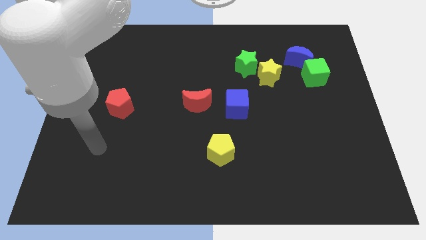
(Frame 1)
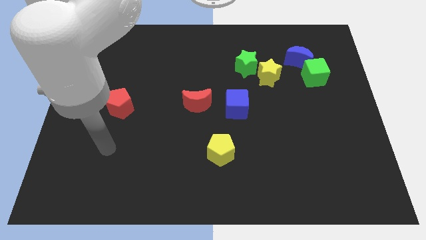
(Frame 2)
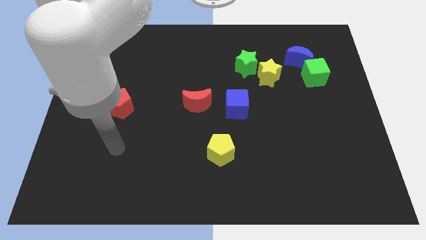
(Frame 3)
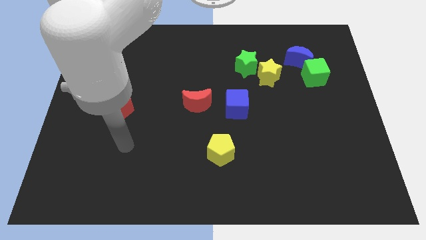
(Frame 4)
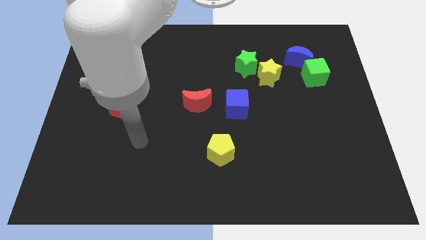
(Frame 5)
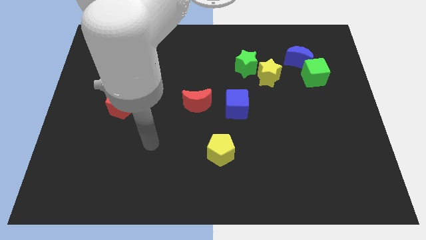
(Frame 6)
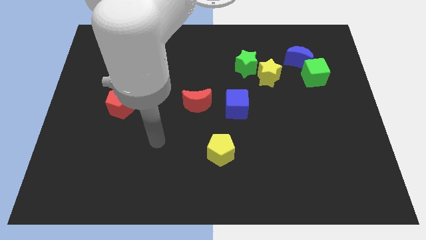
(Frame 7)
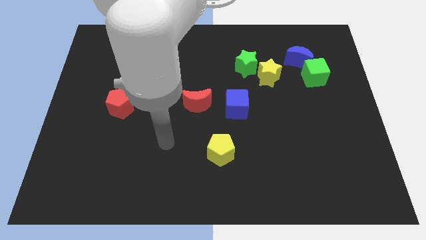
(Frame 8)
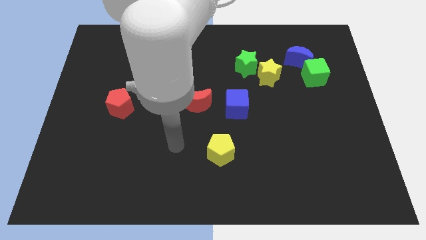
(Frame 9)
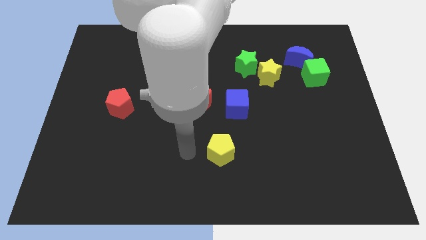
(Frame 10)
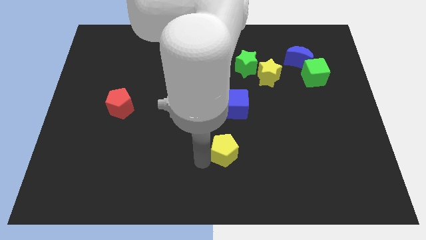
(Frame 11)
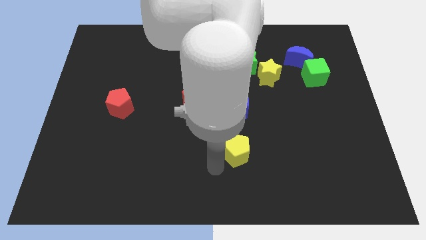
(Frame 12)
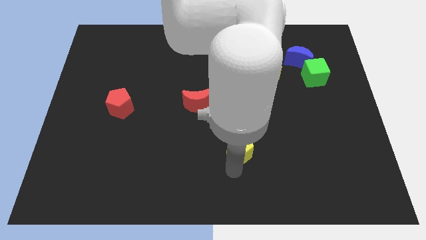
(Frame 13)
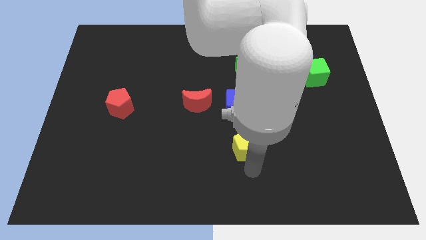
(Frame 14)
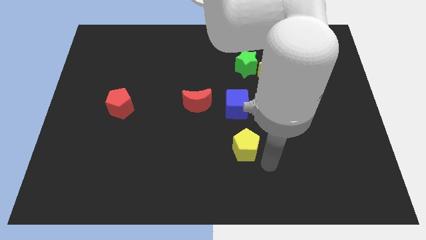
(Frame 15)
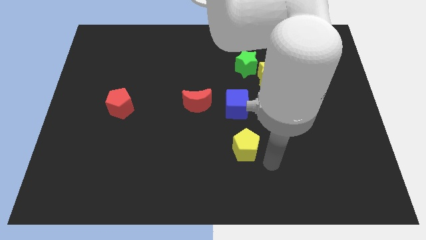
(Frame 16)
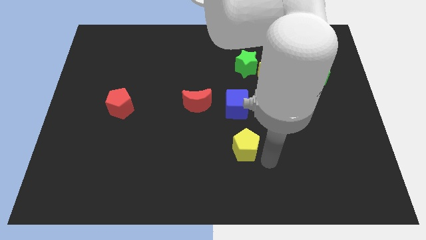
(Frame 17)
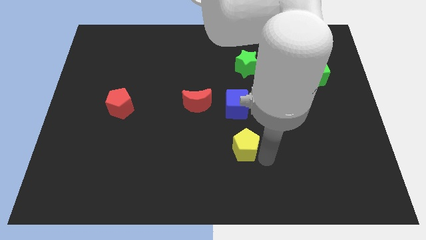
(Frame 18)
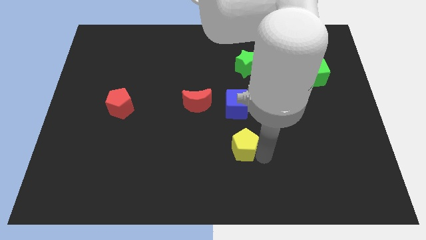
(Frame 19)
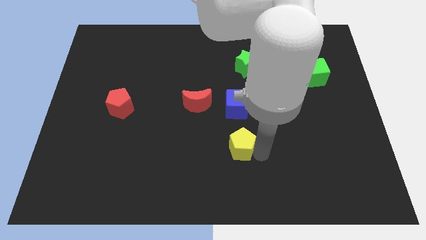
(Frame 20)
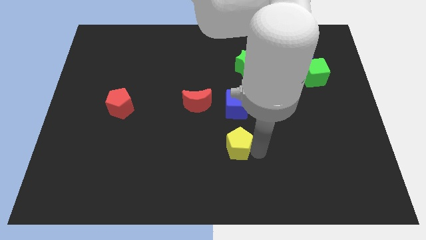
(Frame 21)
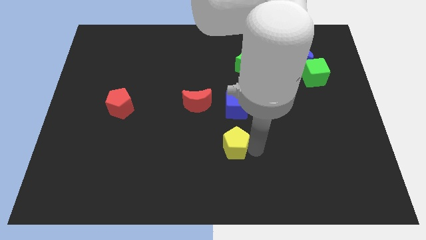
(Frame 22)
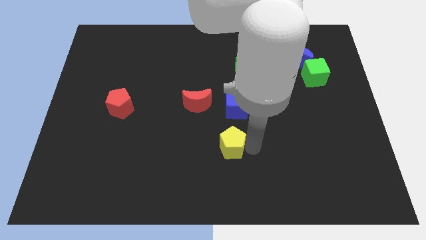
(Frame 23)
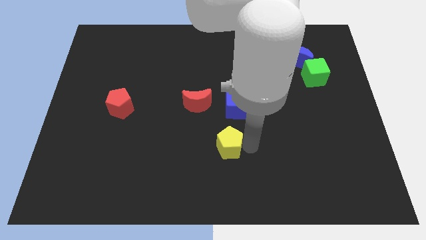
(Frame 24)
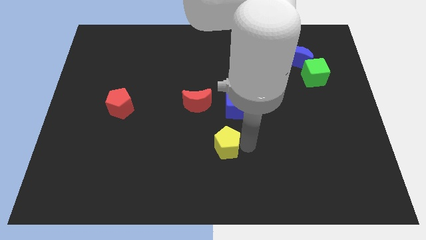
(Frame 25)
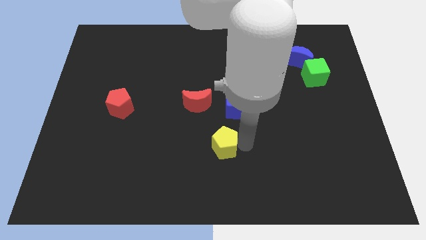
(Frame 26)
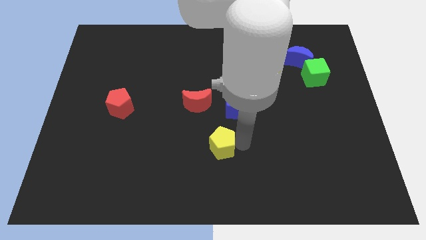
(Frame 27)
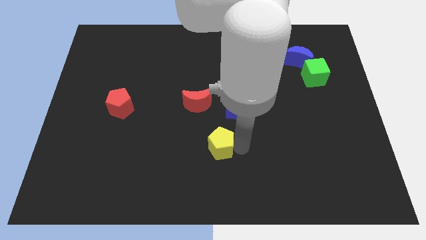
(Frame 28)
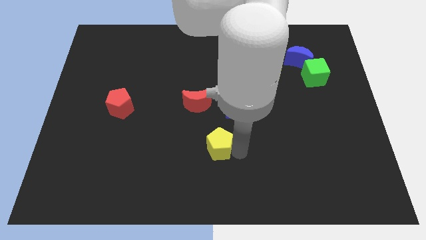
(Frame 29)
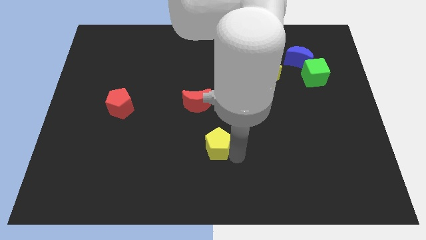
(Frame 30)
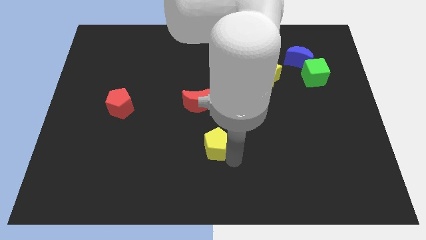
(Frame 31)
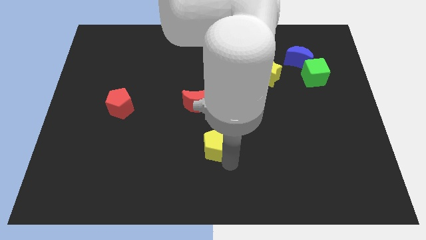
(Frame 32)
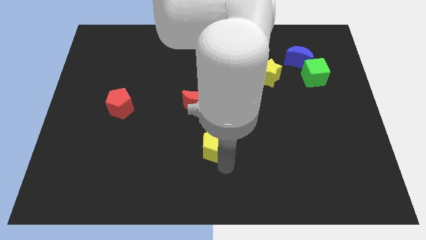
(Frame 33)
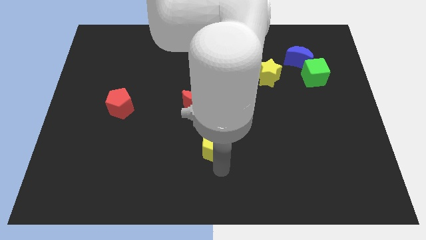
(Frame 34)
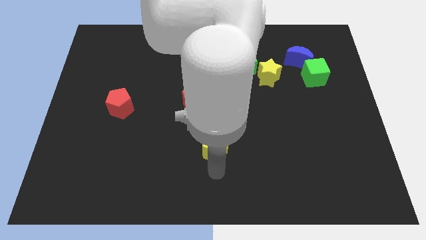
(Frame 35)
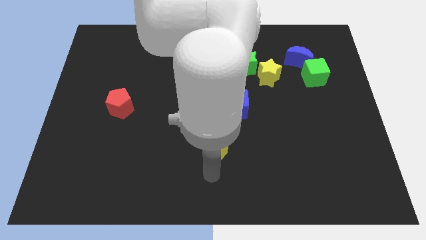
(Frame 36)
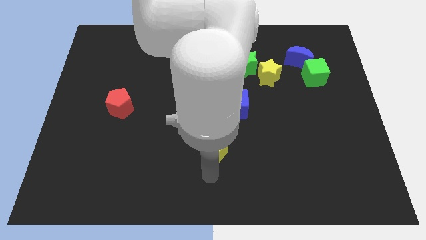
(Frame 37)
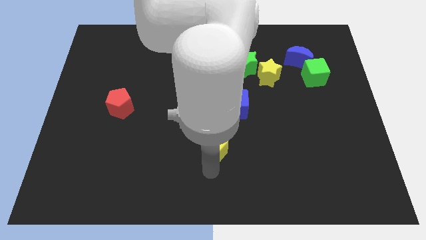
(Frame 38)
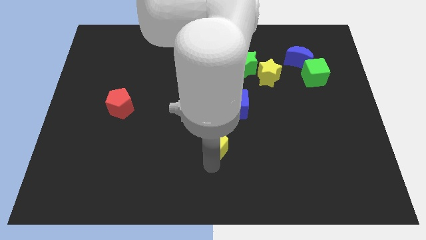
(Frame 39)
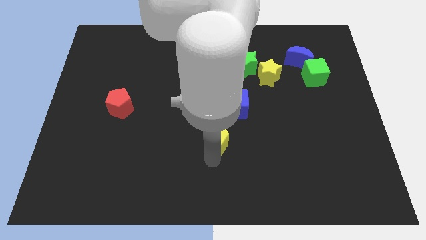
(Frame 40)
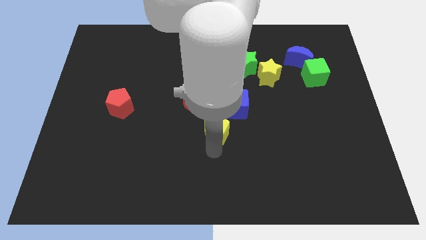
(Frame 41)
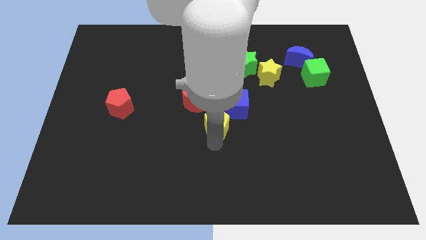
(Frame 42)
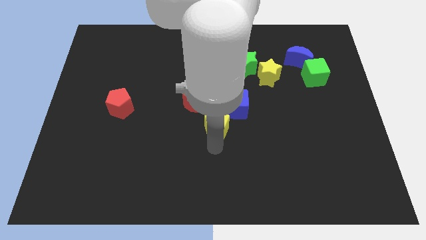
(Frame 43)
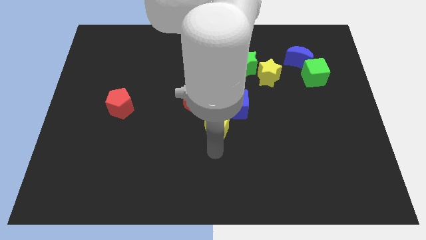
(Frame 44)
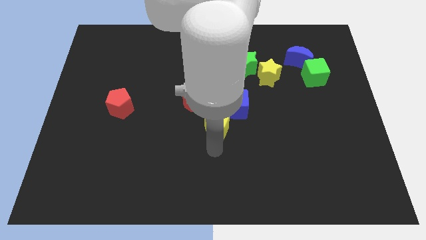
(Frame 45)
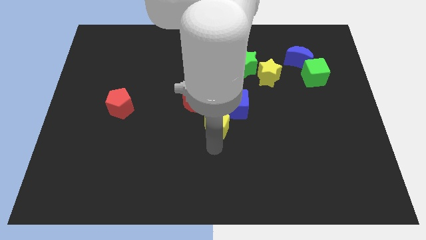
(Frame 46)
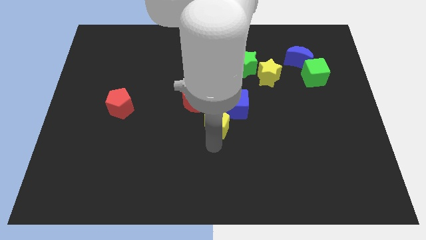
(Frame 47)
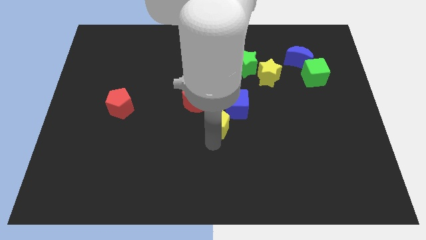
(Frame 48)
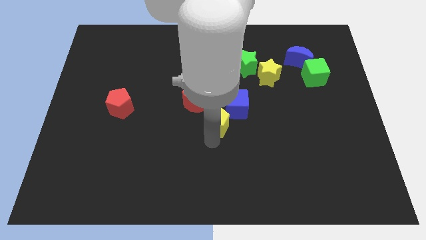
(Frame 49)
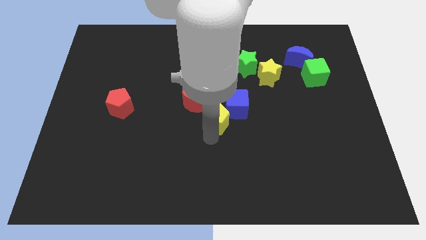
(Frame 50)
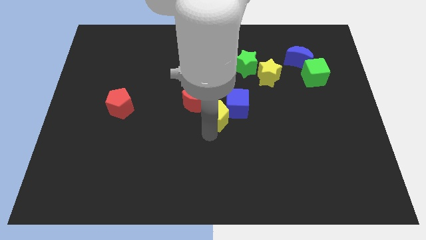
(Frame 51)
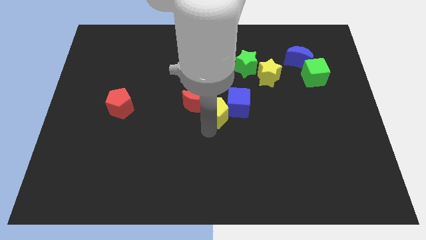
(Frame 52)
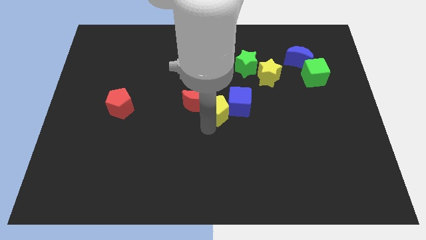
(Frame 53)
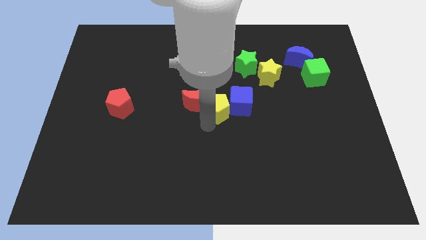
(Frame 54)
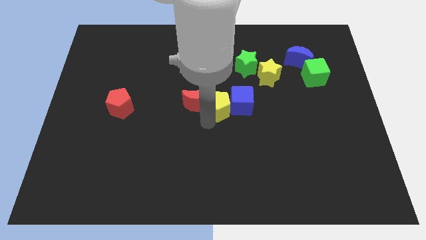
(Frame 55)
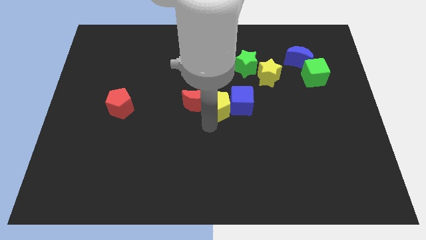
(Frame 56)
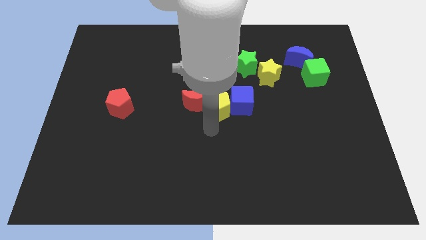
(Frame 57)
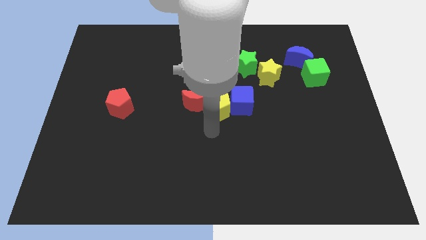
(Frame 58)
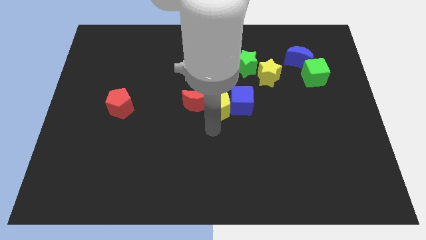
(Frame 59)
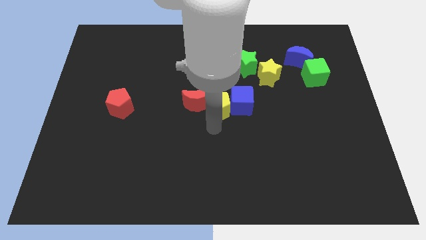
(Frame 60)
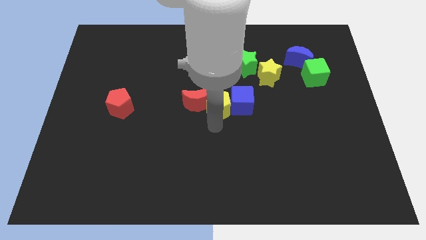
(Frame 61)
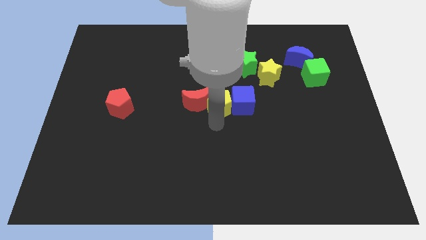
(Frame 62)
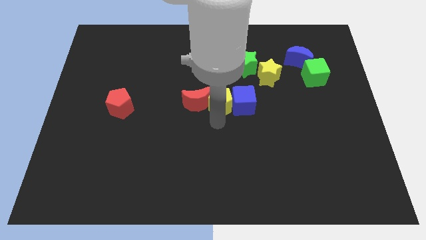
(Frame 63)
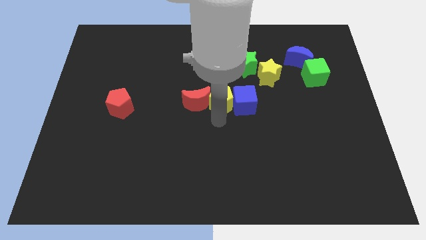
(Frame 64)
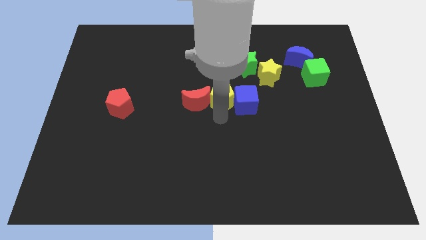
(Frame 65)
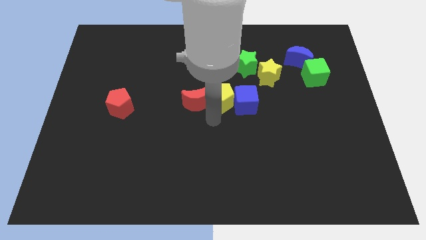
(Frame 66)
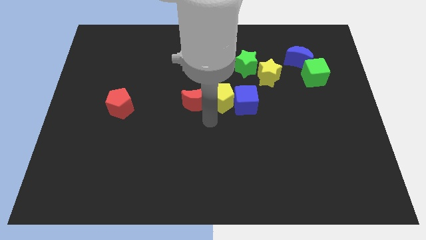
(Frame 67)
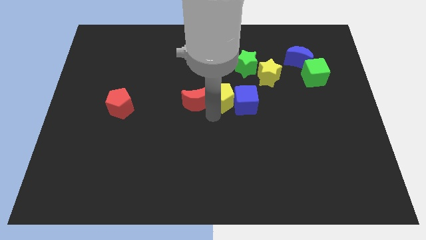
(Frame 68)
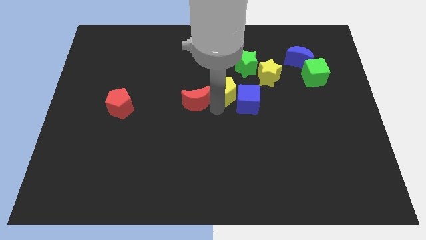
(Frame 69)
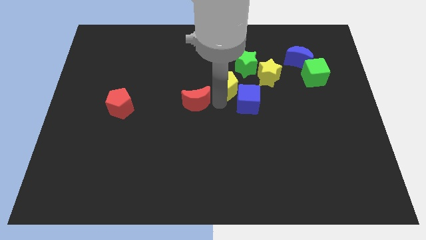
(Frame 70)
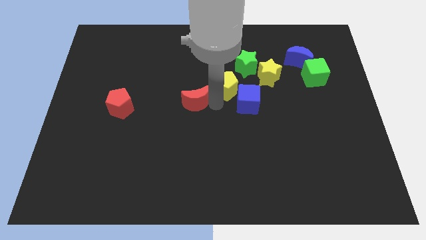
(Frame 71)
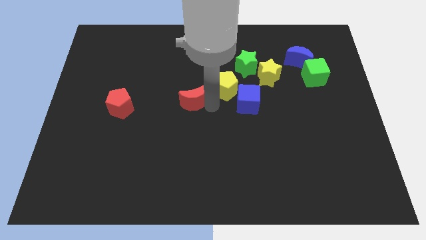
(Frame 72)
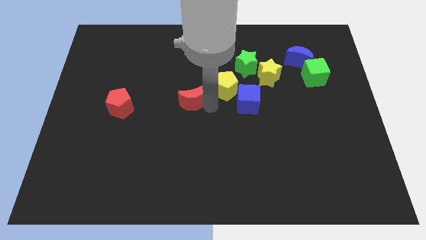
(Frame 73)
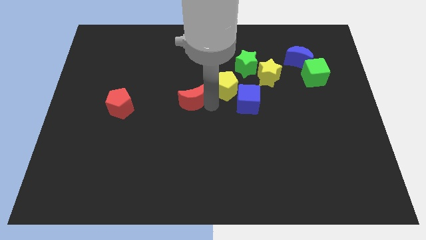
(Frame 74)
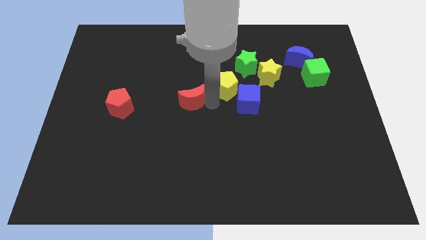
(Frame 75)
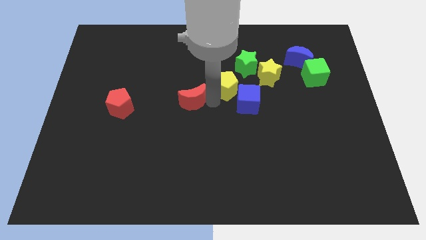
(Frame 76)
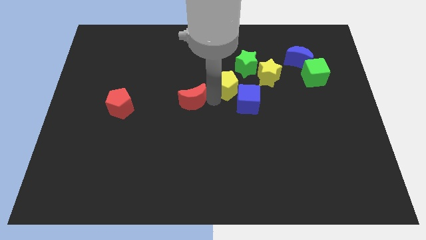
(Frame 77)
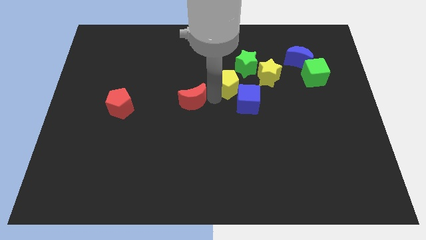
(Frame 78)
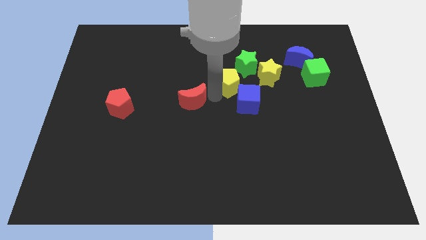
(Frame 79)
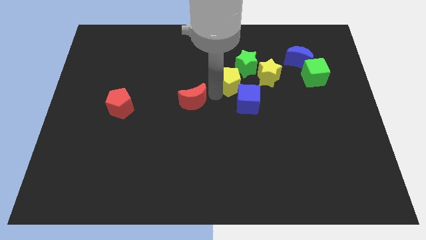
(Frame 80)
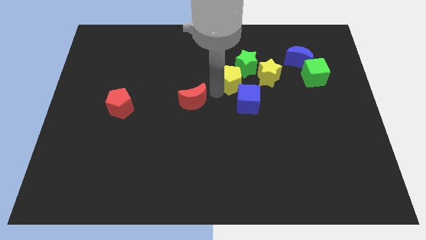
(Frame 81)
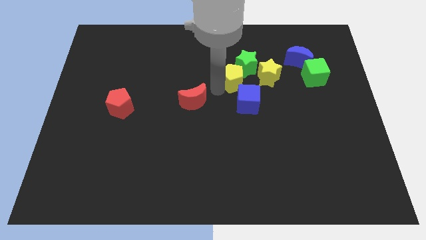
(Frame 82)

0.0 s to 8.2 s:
move the yellow pentagon to the green star
